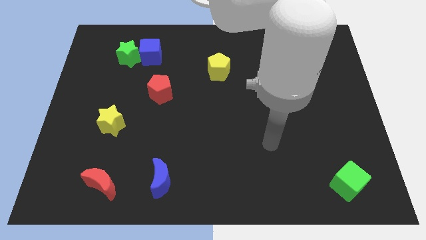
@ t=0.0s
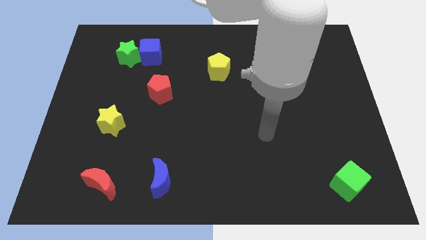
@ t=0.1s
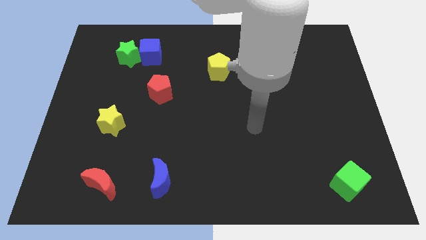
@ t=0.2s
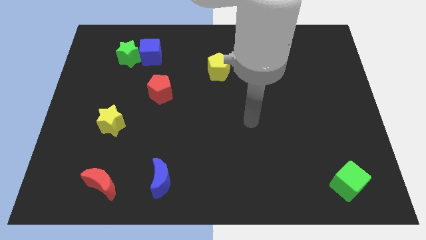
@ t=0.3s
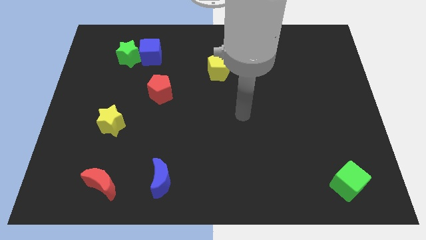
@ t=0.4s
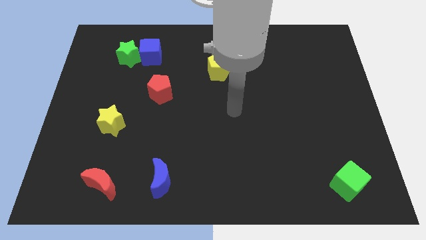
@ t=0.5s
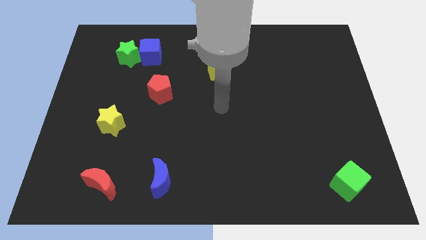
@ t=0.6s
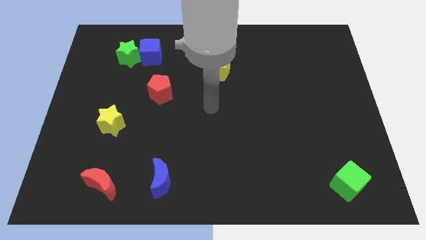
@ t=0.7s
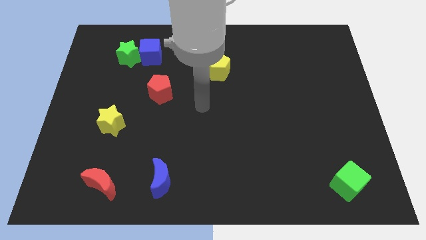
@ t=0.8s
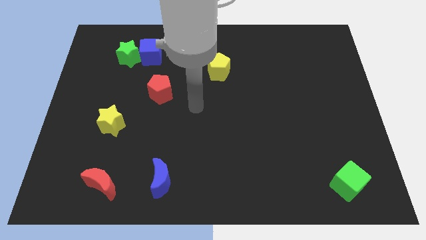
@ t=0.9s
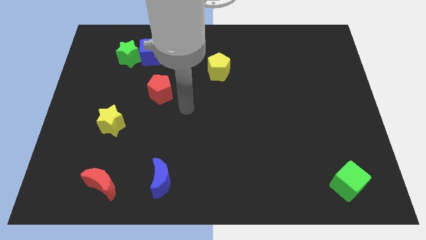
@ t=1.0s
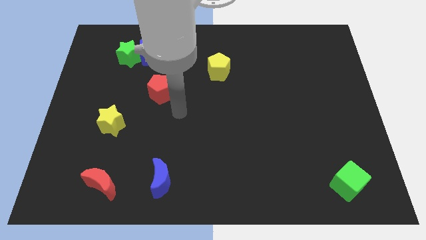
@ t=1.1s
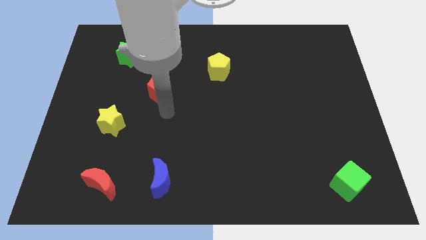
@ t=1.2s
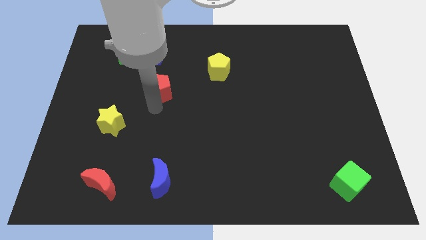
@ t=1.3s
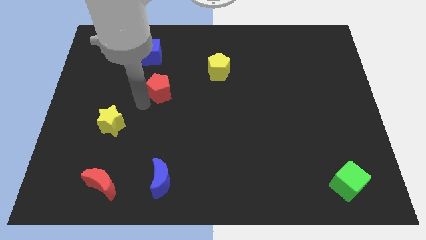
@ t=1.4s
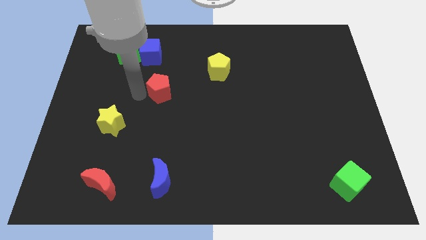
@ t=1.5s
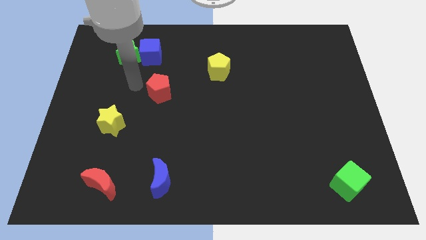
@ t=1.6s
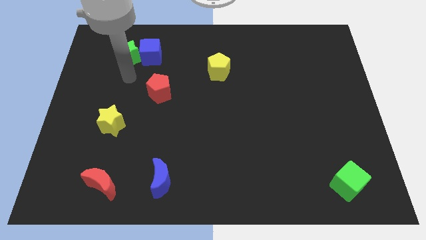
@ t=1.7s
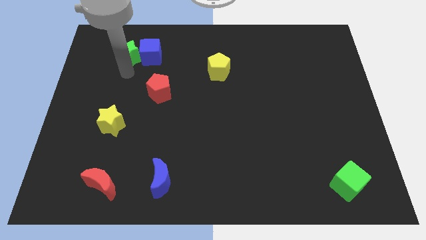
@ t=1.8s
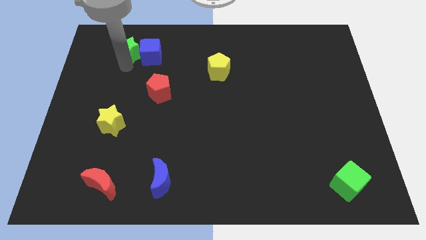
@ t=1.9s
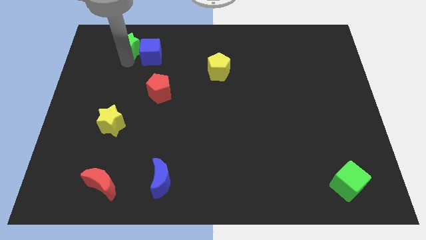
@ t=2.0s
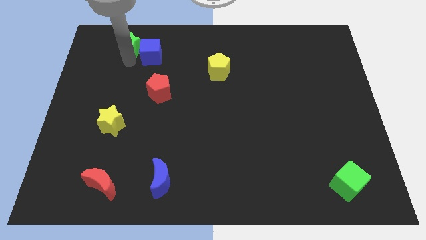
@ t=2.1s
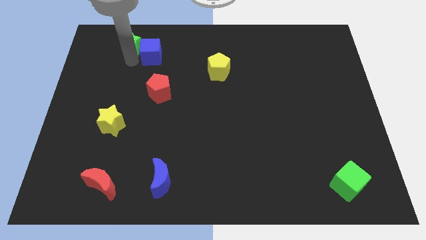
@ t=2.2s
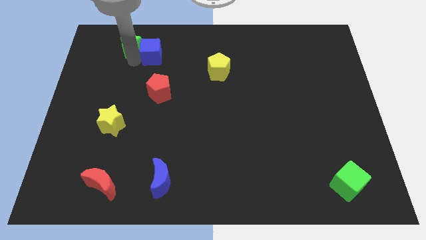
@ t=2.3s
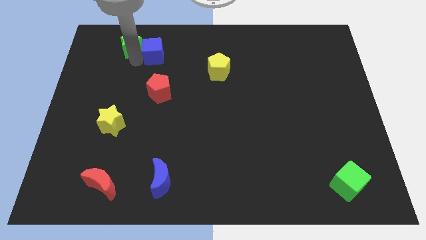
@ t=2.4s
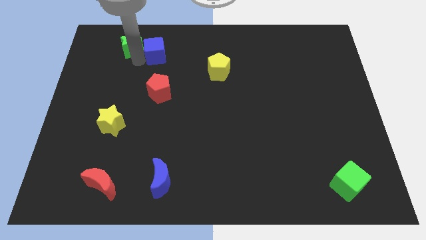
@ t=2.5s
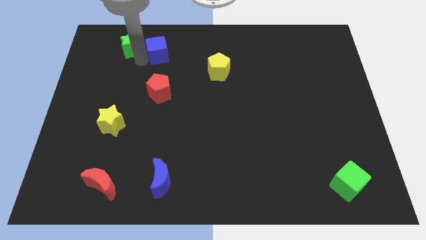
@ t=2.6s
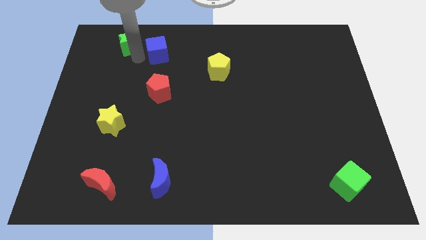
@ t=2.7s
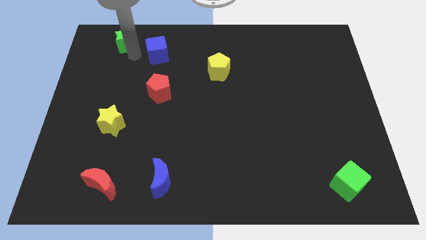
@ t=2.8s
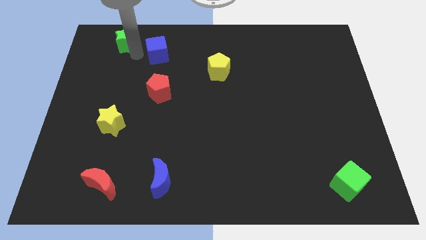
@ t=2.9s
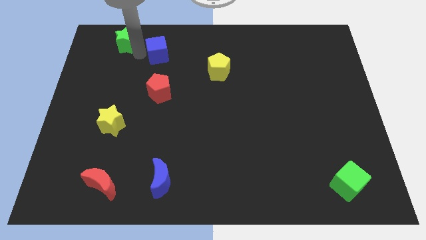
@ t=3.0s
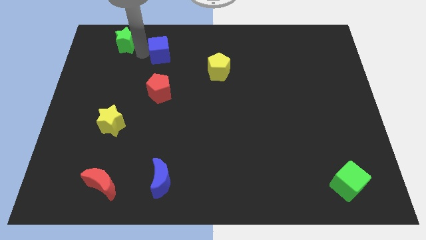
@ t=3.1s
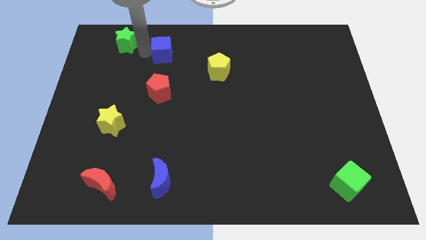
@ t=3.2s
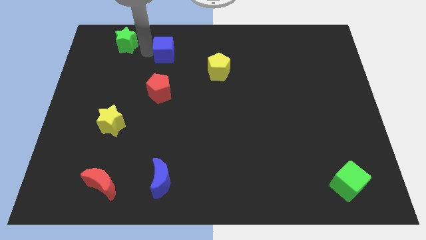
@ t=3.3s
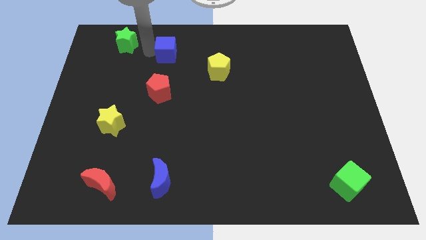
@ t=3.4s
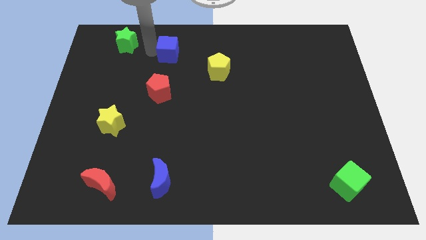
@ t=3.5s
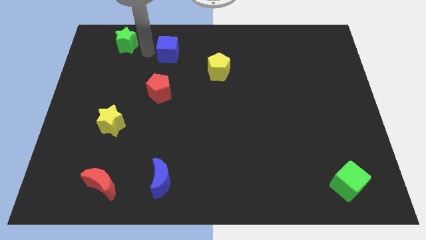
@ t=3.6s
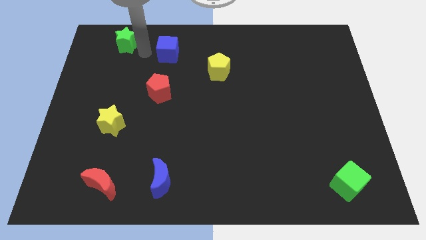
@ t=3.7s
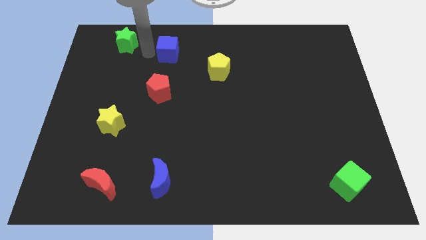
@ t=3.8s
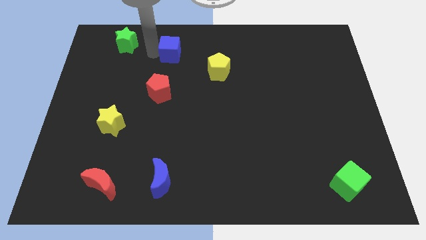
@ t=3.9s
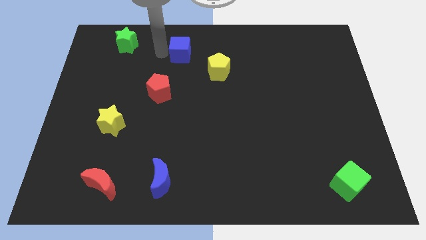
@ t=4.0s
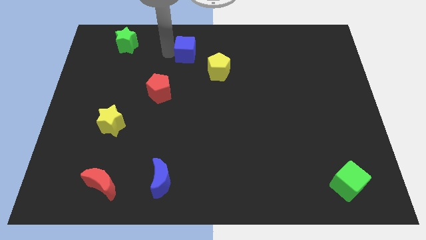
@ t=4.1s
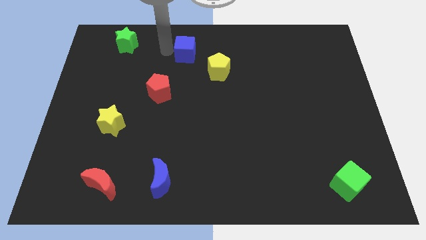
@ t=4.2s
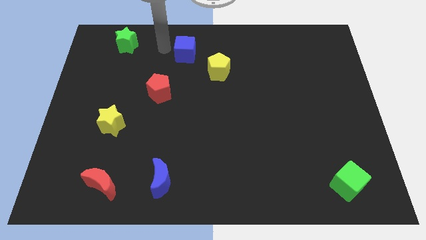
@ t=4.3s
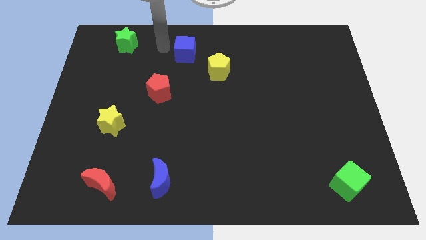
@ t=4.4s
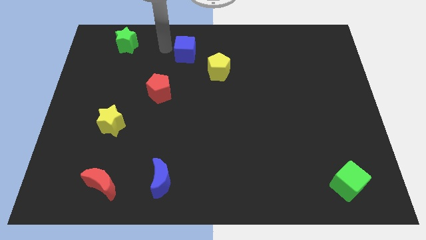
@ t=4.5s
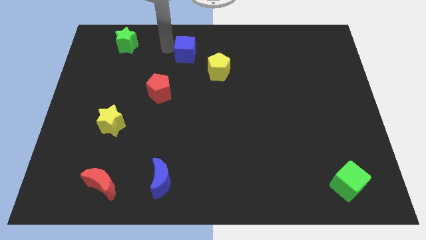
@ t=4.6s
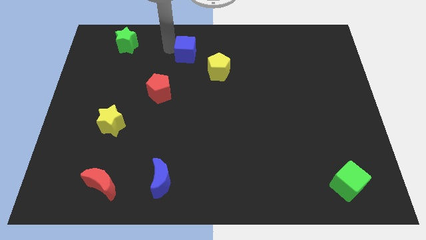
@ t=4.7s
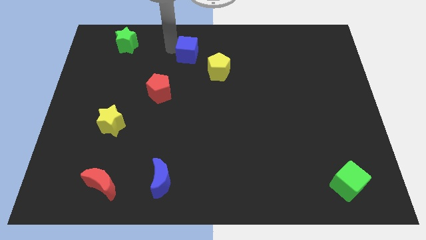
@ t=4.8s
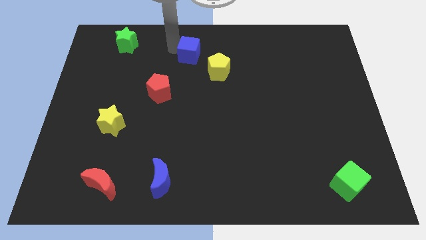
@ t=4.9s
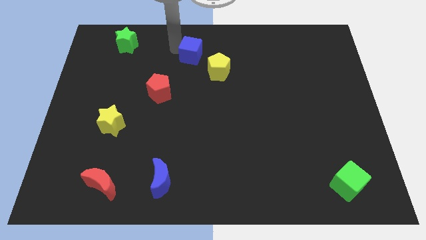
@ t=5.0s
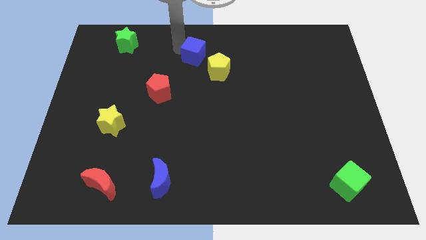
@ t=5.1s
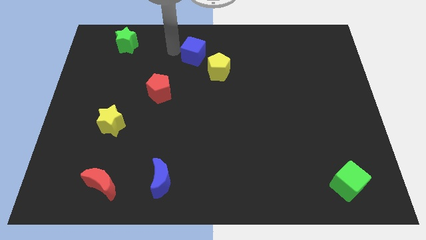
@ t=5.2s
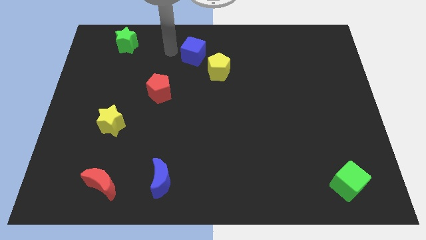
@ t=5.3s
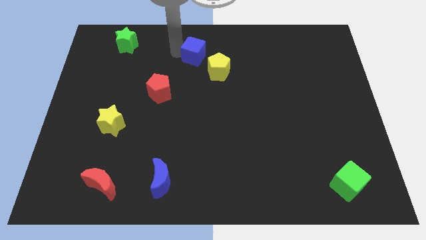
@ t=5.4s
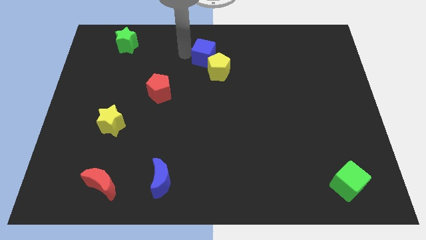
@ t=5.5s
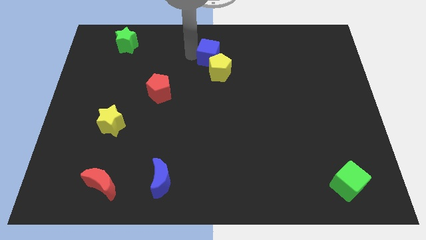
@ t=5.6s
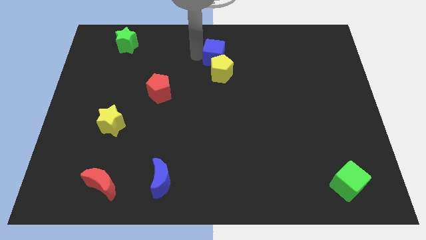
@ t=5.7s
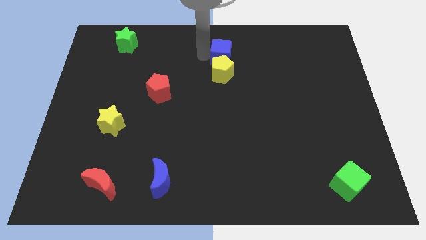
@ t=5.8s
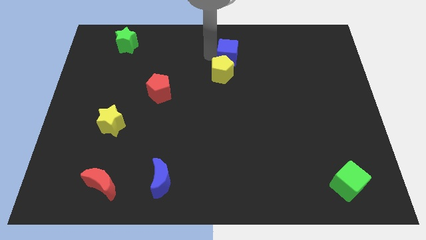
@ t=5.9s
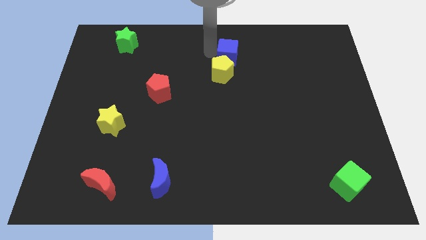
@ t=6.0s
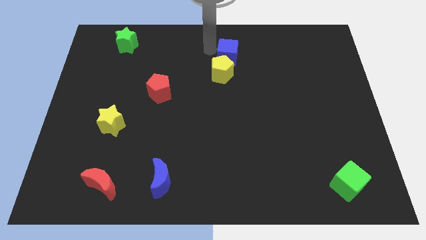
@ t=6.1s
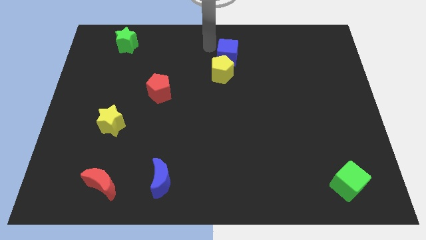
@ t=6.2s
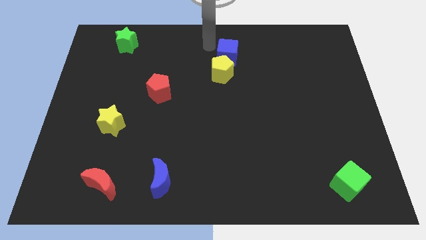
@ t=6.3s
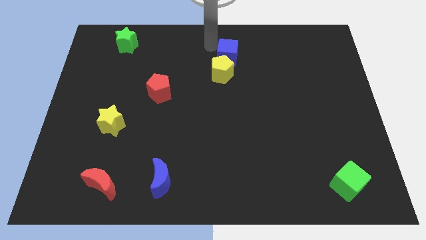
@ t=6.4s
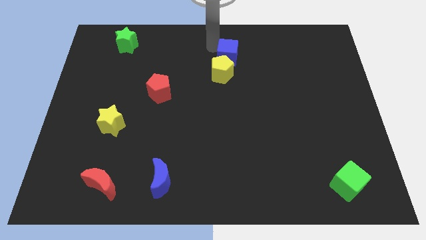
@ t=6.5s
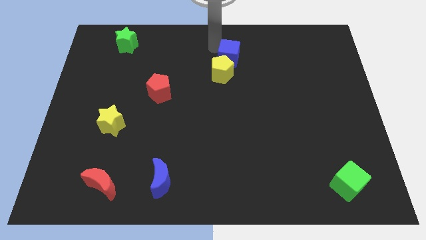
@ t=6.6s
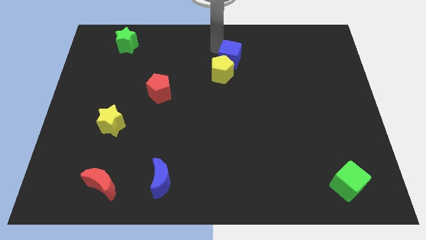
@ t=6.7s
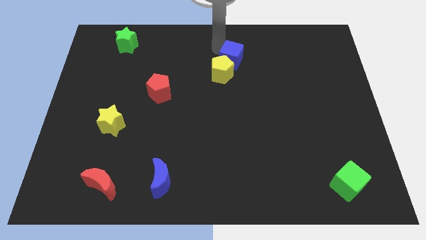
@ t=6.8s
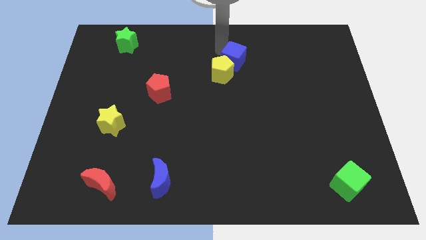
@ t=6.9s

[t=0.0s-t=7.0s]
push the blue cube just right of the yellow pentagon

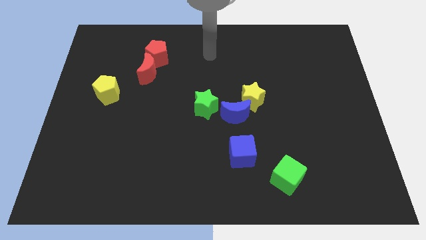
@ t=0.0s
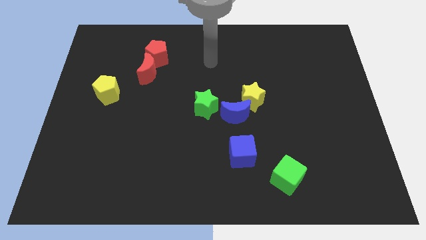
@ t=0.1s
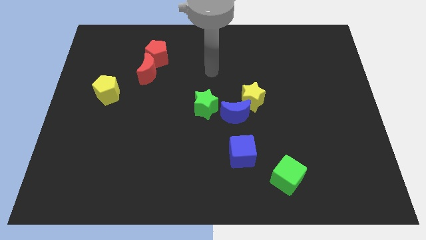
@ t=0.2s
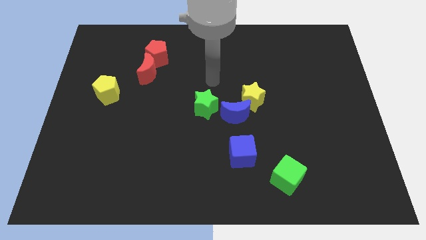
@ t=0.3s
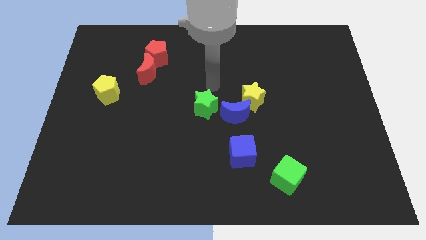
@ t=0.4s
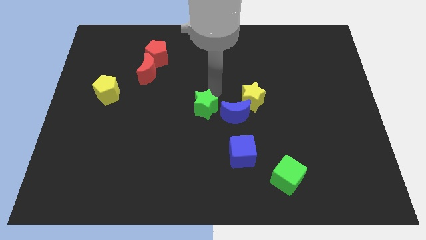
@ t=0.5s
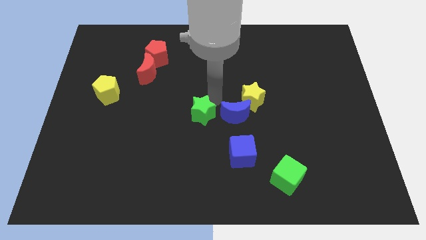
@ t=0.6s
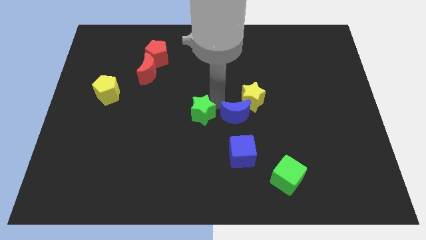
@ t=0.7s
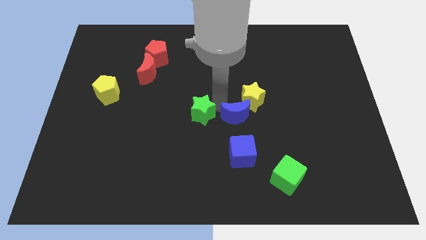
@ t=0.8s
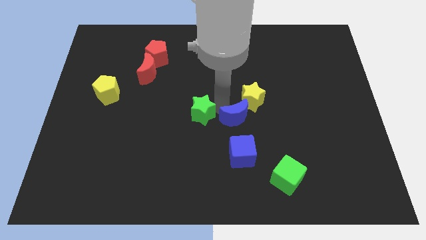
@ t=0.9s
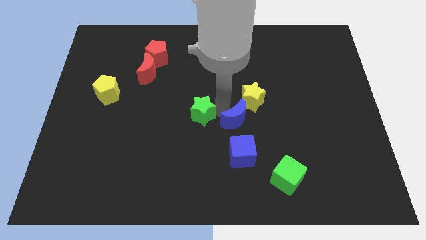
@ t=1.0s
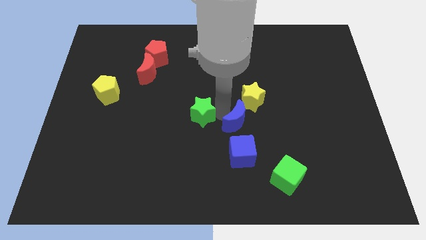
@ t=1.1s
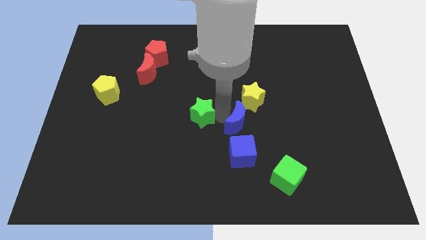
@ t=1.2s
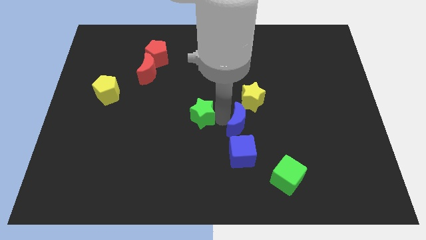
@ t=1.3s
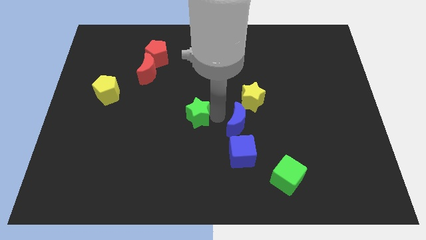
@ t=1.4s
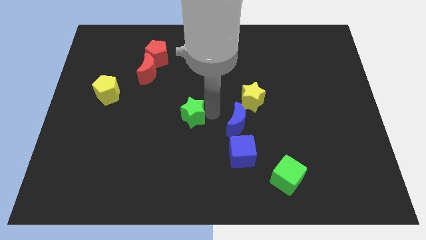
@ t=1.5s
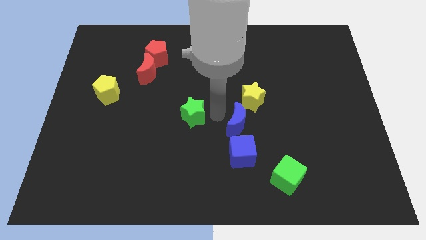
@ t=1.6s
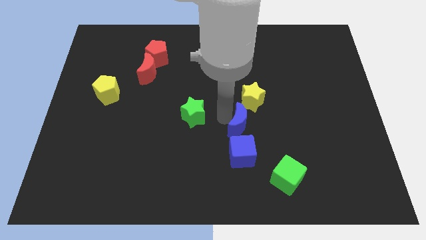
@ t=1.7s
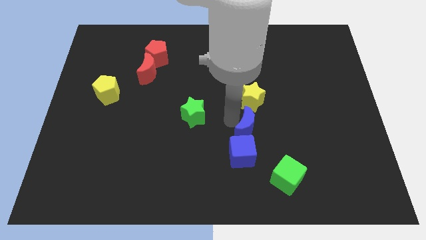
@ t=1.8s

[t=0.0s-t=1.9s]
push the blue moon diagonally up and to the right of the blue cube
